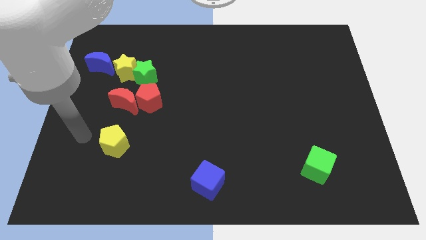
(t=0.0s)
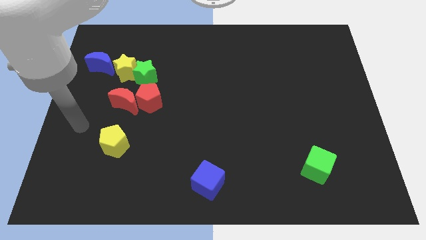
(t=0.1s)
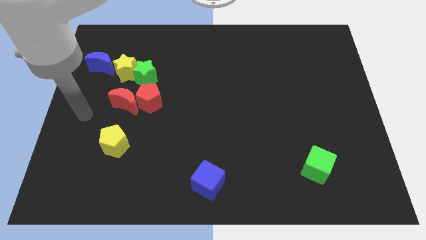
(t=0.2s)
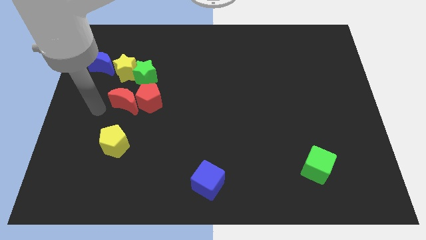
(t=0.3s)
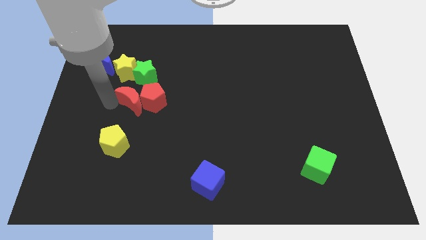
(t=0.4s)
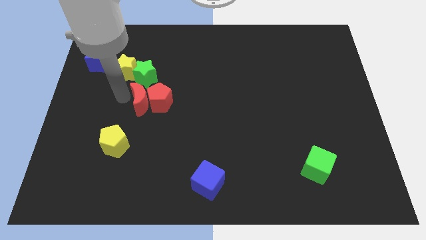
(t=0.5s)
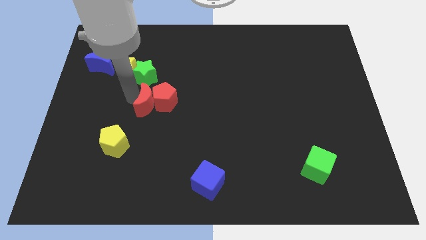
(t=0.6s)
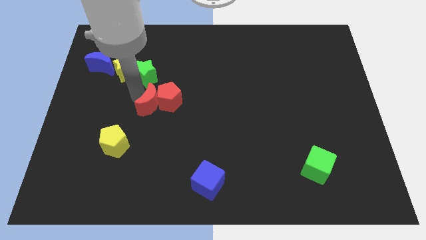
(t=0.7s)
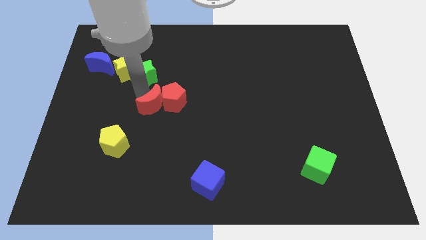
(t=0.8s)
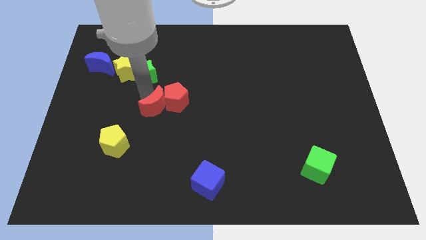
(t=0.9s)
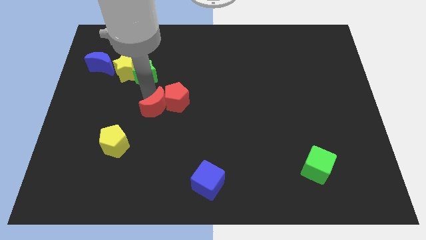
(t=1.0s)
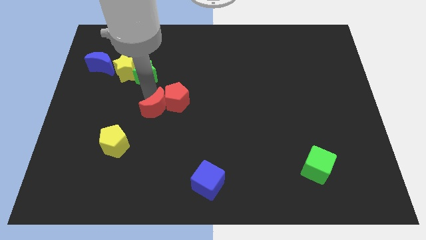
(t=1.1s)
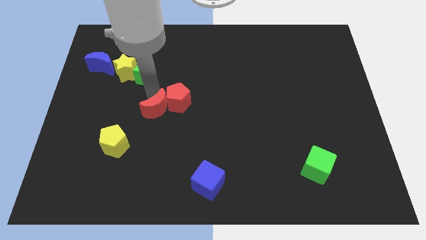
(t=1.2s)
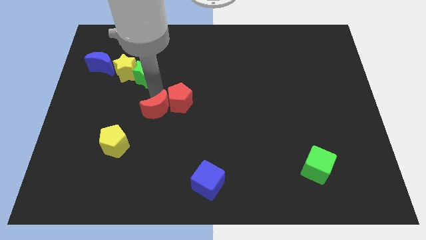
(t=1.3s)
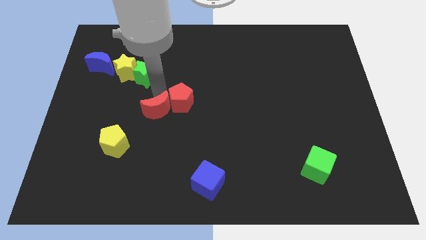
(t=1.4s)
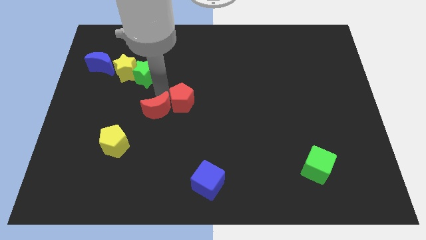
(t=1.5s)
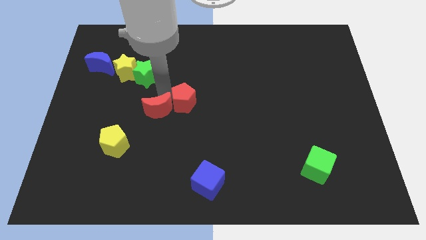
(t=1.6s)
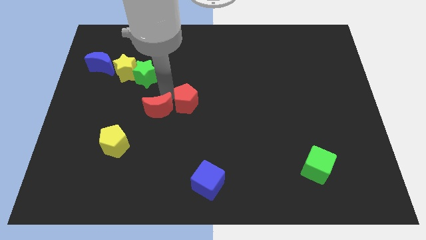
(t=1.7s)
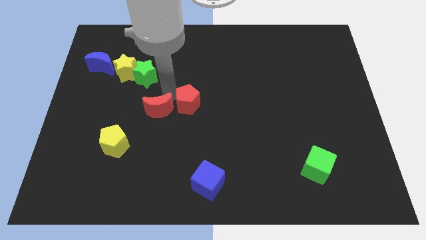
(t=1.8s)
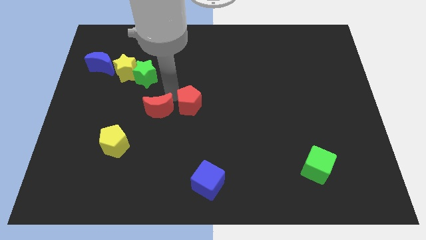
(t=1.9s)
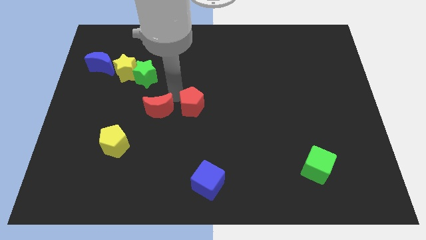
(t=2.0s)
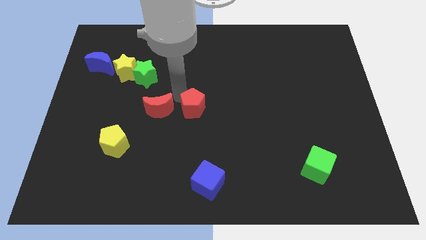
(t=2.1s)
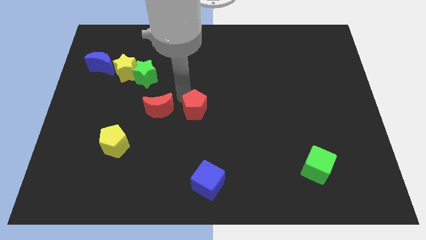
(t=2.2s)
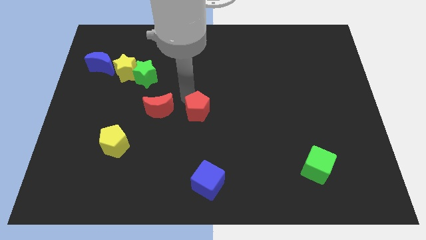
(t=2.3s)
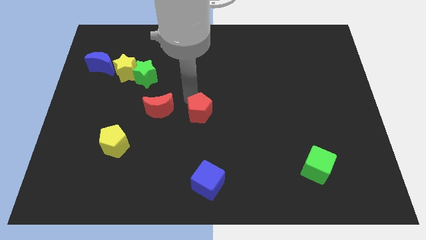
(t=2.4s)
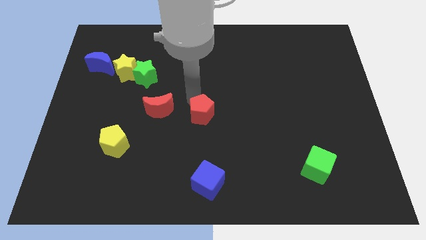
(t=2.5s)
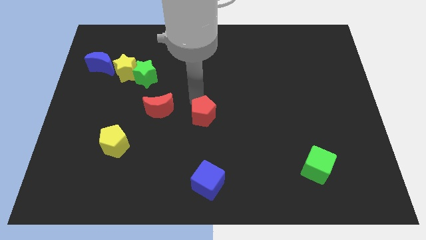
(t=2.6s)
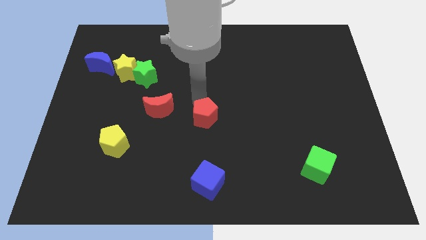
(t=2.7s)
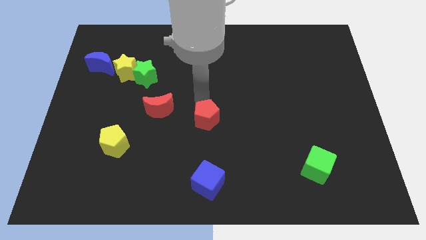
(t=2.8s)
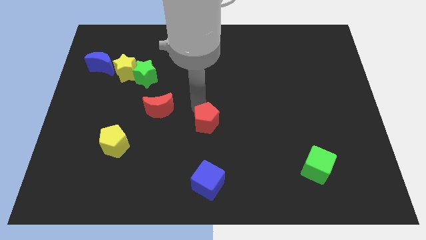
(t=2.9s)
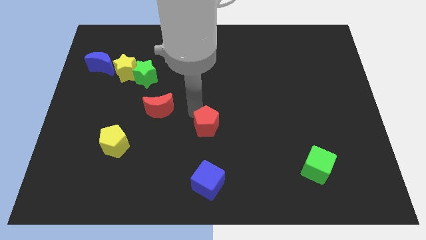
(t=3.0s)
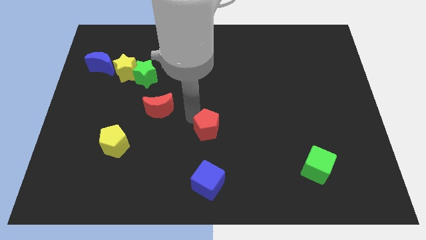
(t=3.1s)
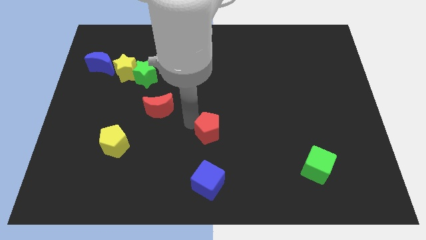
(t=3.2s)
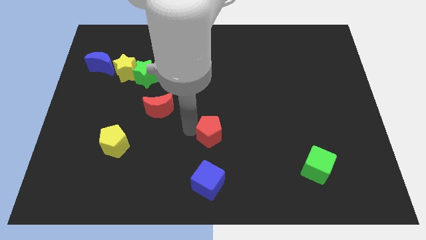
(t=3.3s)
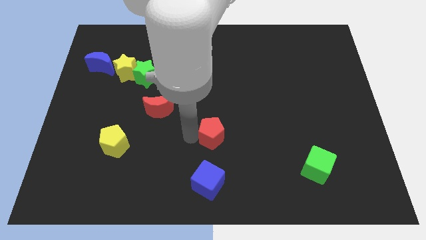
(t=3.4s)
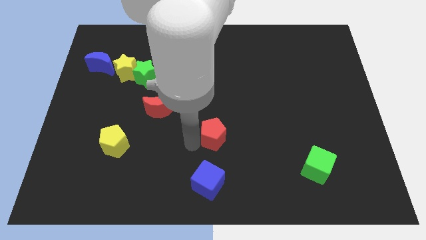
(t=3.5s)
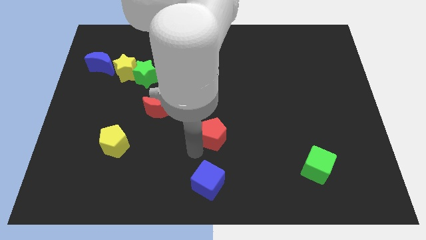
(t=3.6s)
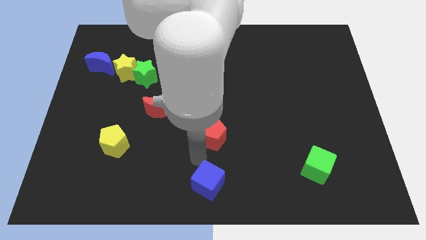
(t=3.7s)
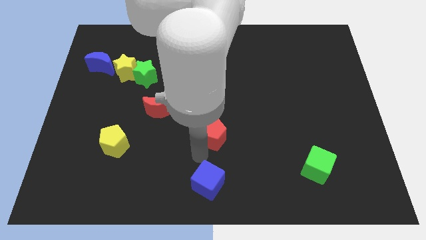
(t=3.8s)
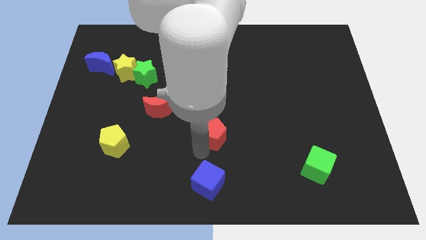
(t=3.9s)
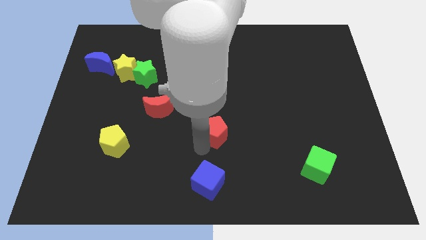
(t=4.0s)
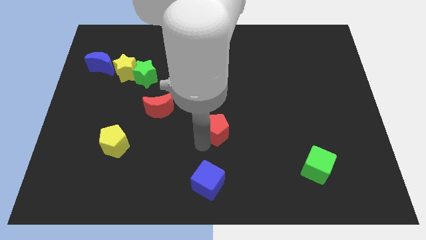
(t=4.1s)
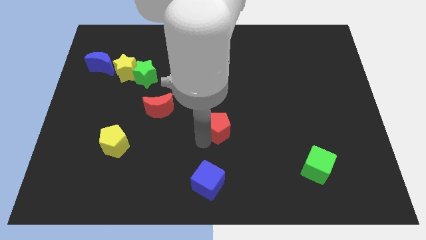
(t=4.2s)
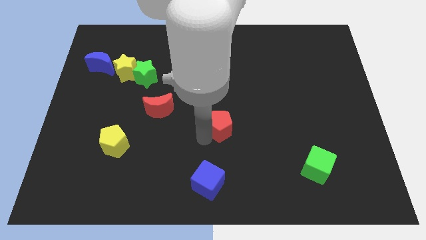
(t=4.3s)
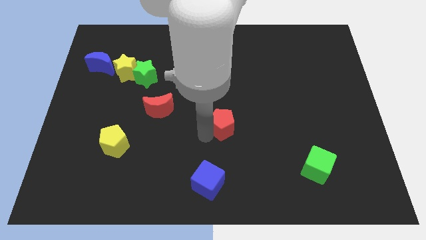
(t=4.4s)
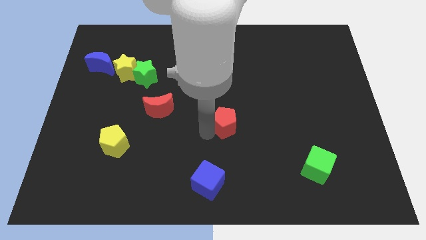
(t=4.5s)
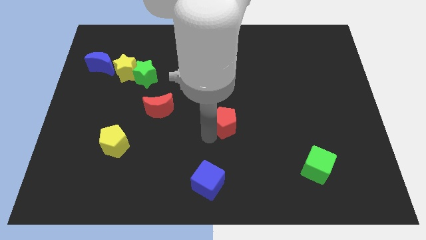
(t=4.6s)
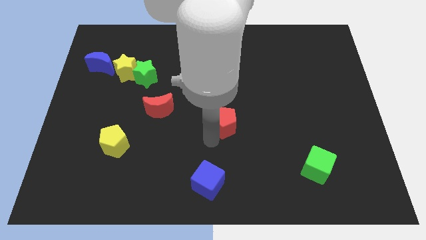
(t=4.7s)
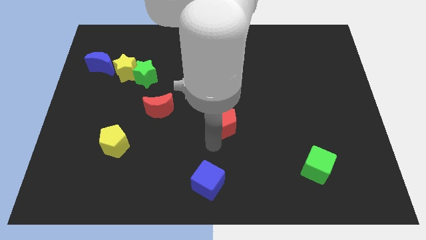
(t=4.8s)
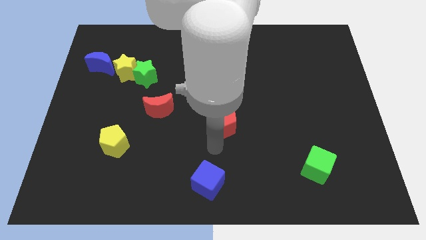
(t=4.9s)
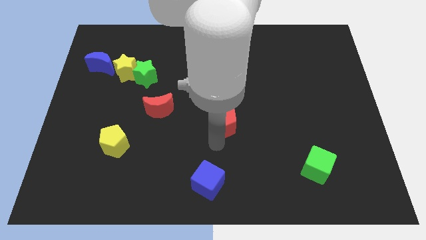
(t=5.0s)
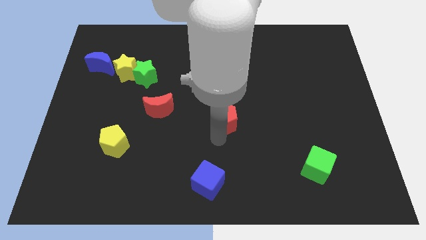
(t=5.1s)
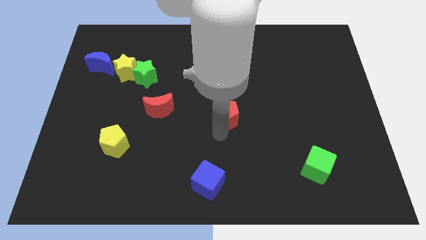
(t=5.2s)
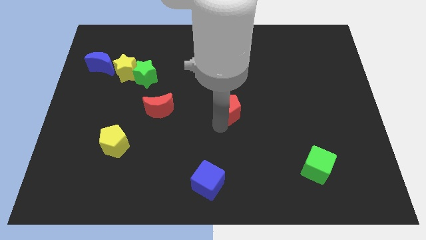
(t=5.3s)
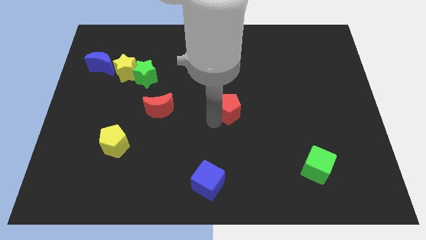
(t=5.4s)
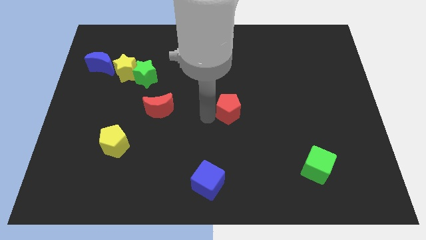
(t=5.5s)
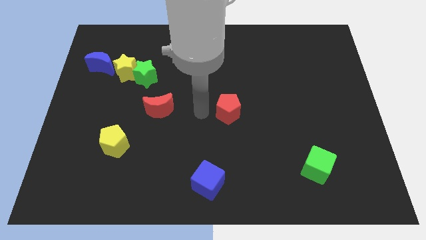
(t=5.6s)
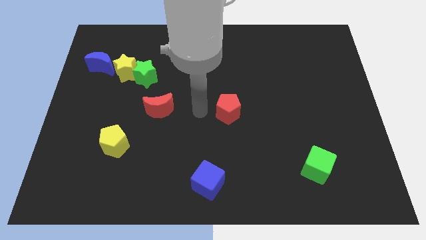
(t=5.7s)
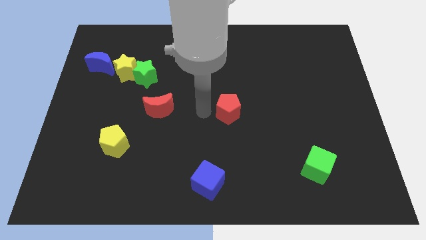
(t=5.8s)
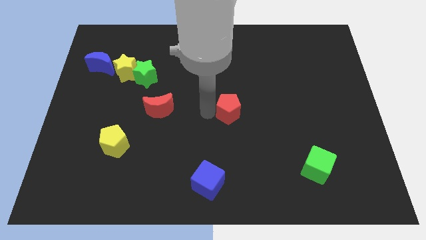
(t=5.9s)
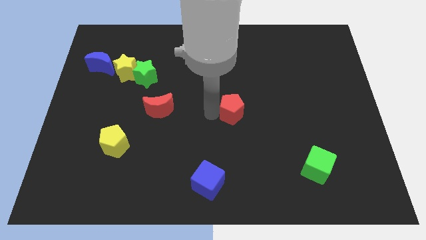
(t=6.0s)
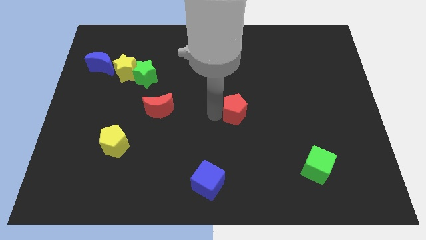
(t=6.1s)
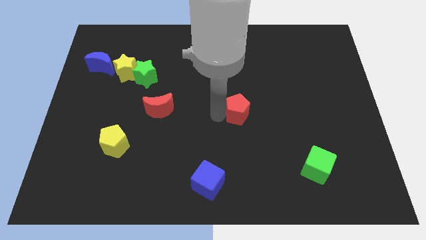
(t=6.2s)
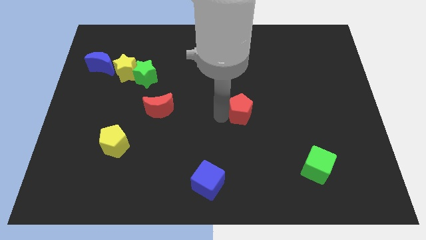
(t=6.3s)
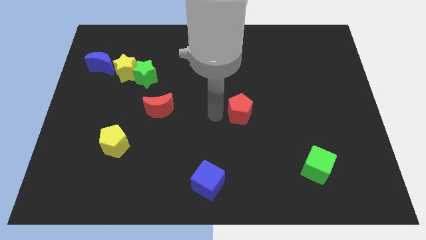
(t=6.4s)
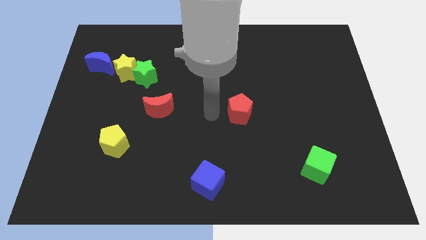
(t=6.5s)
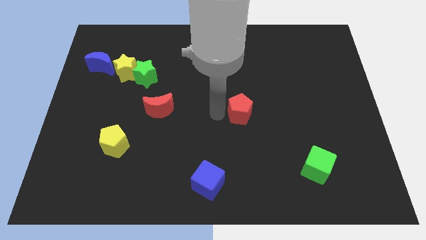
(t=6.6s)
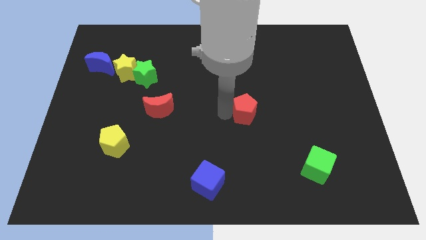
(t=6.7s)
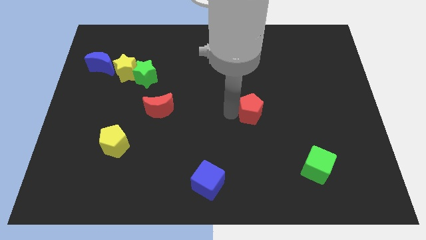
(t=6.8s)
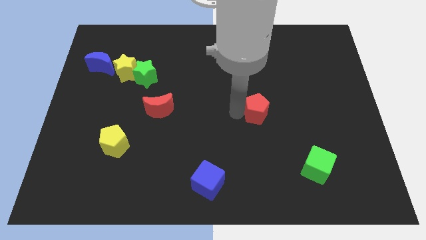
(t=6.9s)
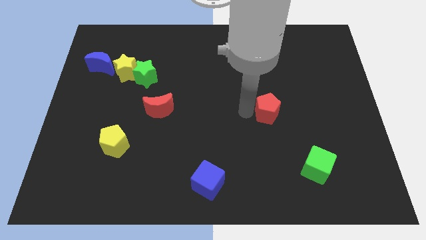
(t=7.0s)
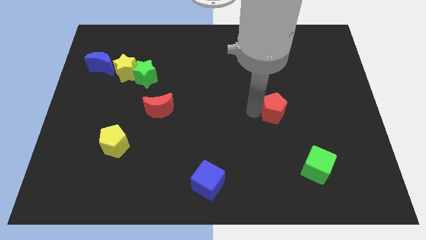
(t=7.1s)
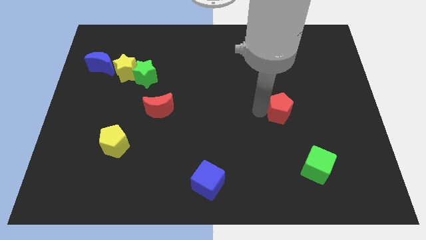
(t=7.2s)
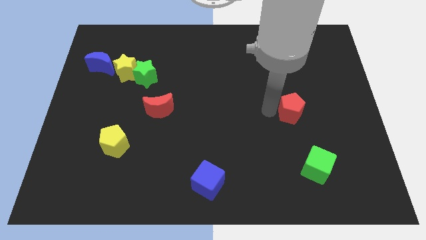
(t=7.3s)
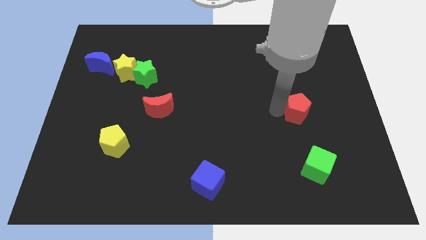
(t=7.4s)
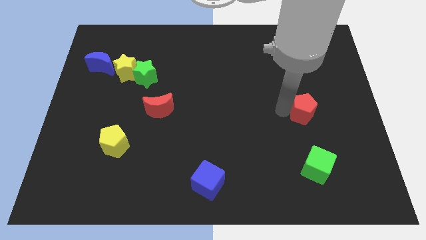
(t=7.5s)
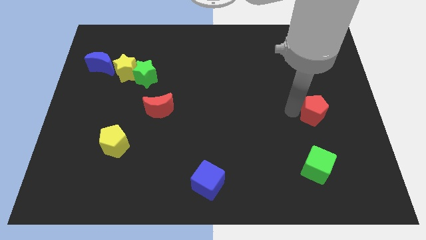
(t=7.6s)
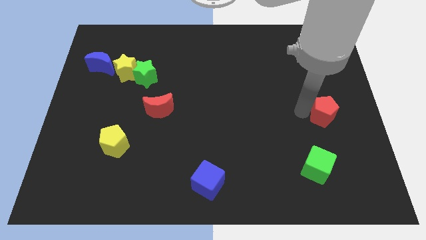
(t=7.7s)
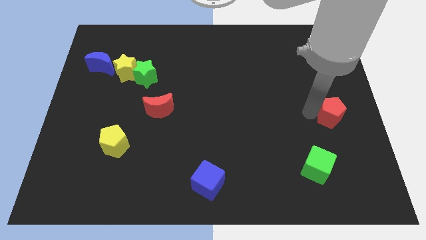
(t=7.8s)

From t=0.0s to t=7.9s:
push the red pentagon to the center right
